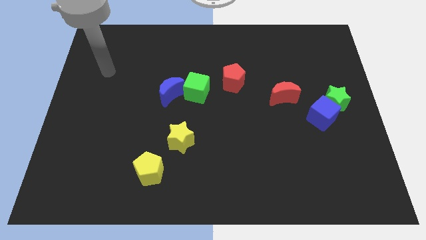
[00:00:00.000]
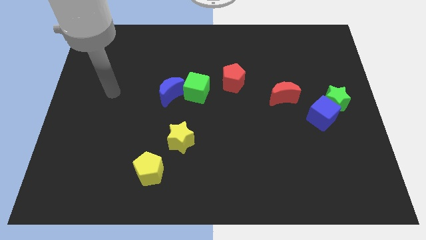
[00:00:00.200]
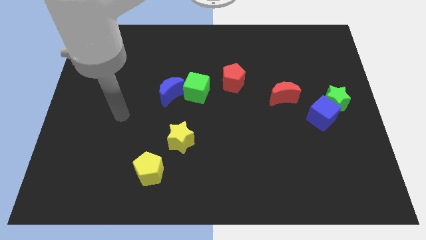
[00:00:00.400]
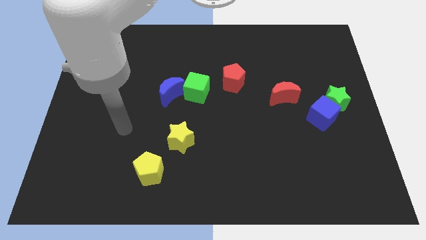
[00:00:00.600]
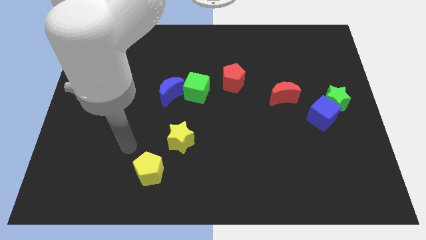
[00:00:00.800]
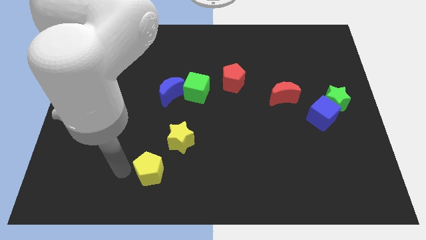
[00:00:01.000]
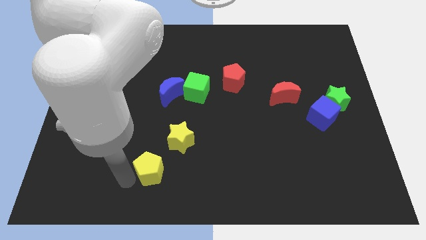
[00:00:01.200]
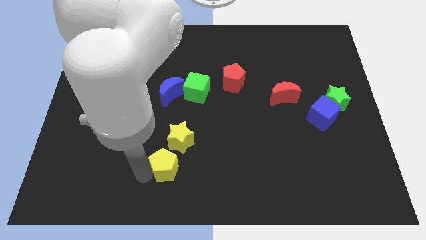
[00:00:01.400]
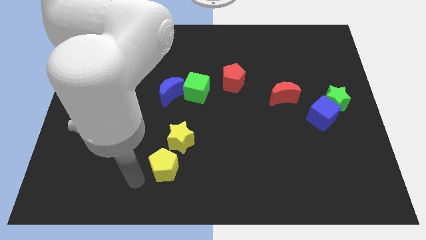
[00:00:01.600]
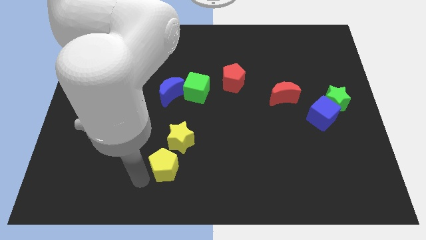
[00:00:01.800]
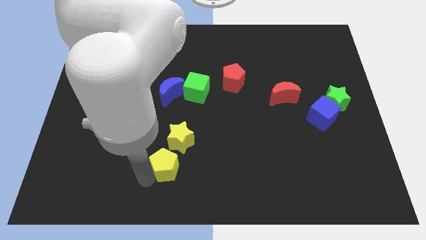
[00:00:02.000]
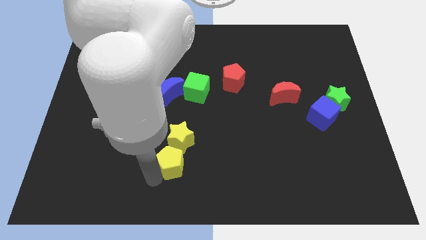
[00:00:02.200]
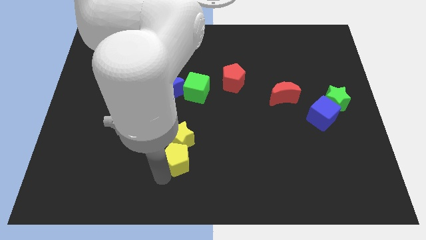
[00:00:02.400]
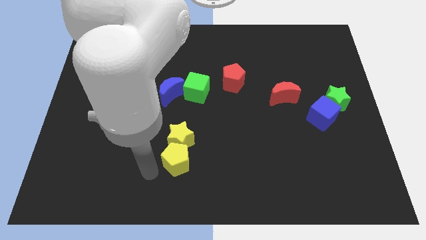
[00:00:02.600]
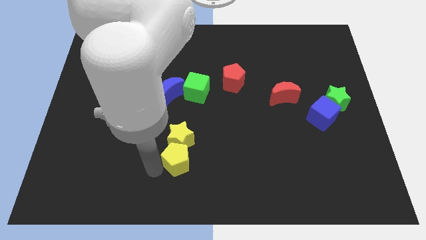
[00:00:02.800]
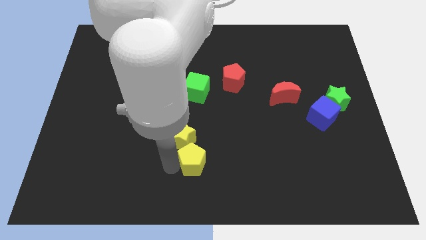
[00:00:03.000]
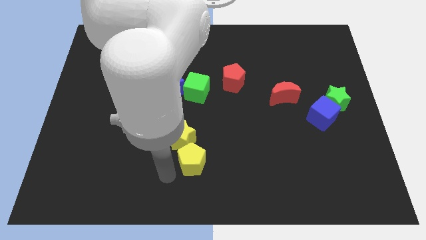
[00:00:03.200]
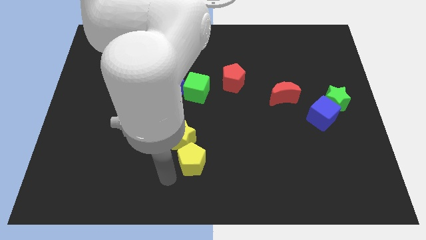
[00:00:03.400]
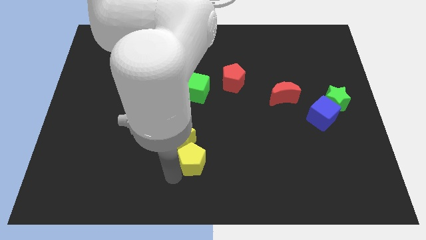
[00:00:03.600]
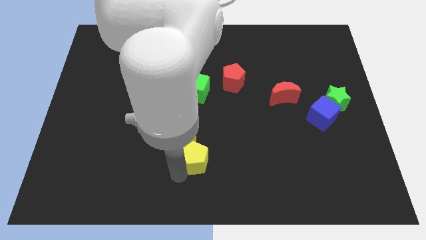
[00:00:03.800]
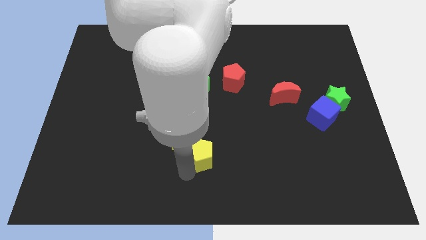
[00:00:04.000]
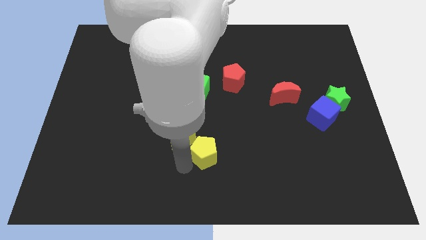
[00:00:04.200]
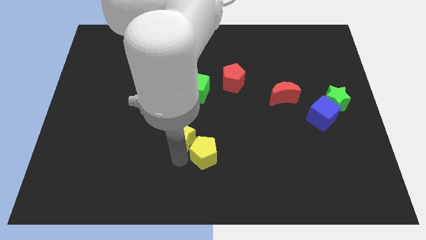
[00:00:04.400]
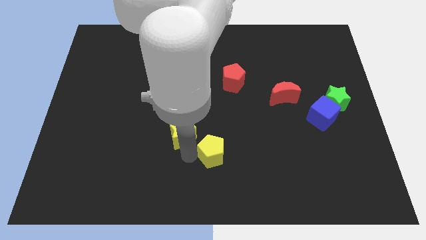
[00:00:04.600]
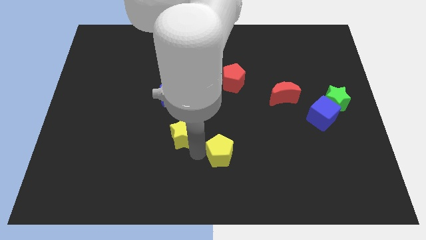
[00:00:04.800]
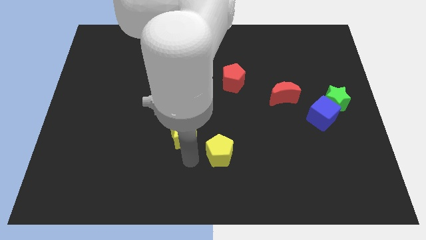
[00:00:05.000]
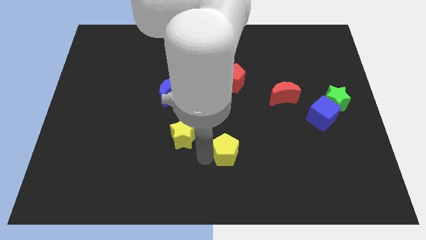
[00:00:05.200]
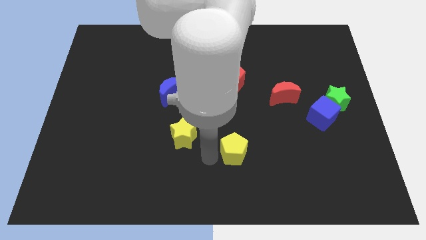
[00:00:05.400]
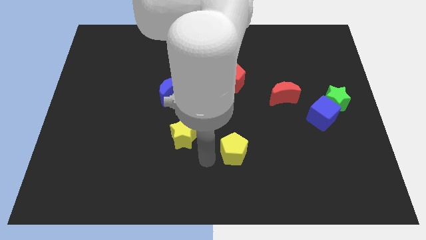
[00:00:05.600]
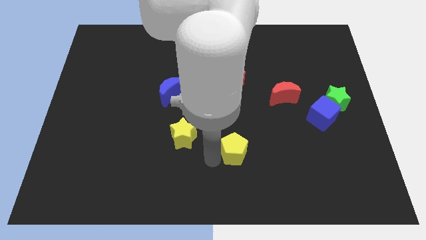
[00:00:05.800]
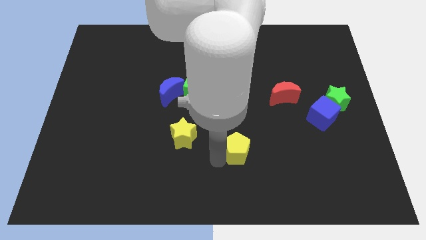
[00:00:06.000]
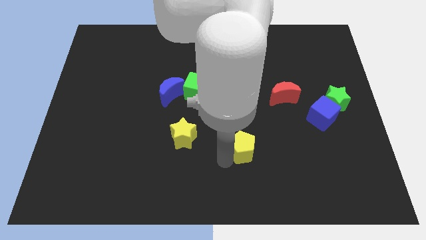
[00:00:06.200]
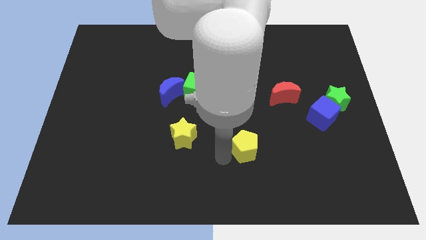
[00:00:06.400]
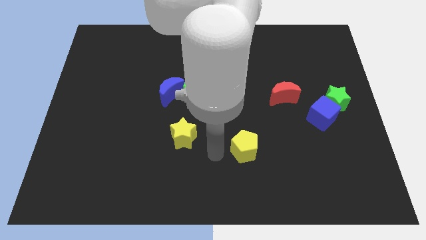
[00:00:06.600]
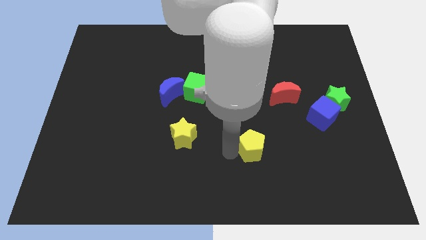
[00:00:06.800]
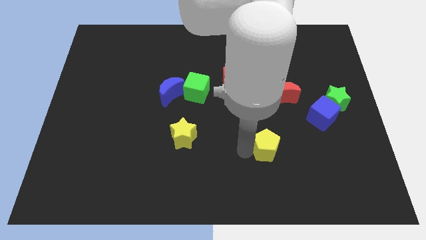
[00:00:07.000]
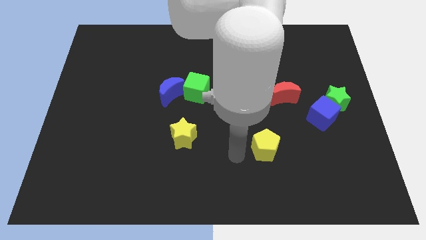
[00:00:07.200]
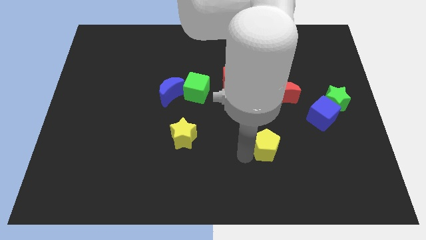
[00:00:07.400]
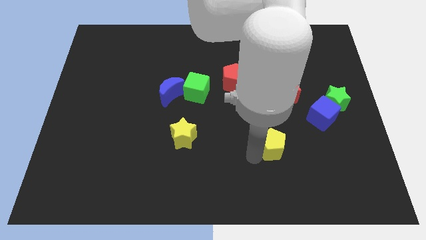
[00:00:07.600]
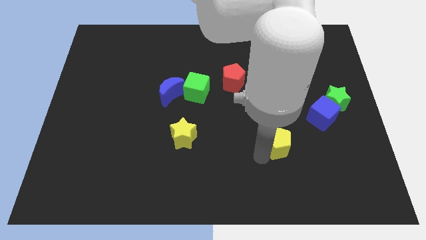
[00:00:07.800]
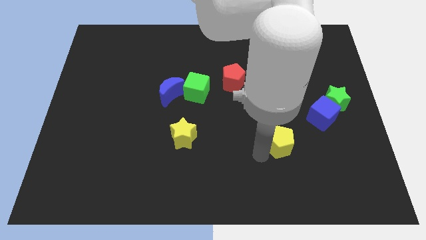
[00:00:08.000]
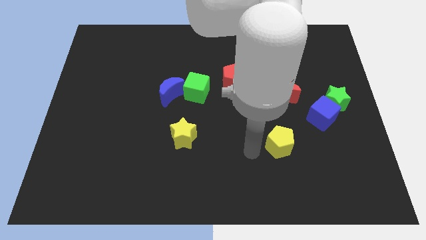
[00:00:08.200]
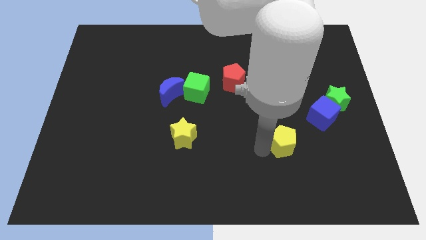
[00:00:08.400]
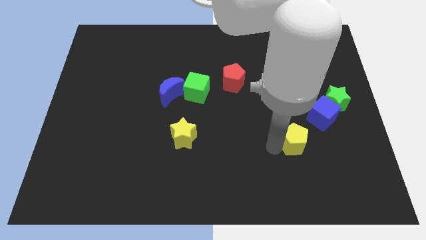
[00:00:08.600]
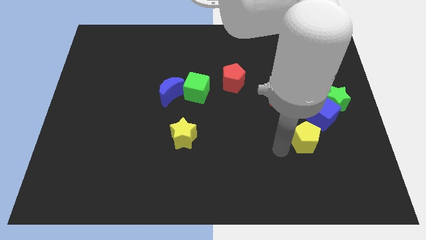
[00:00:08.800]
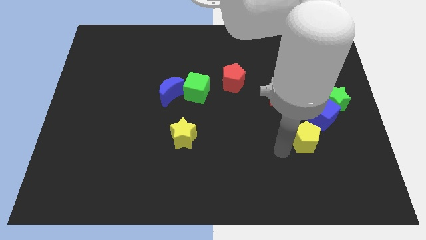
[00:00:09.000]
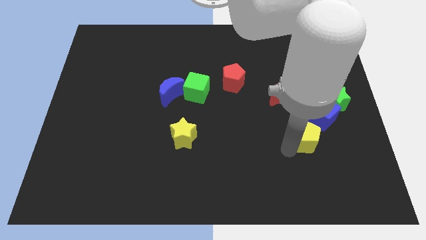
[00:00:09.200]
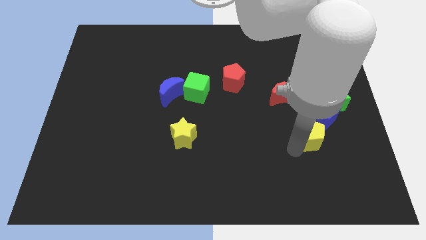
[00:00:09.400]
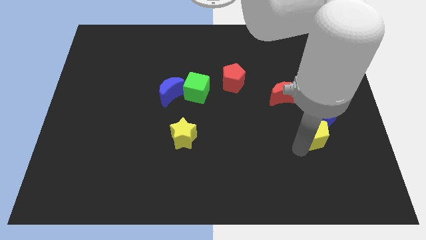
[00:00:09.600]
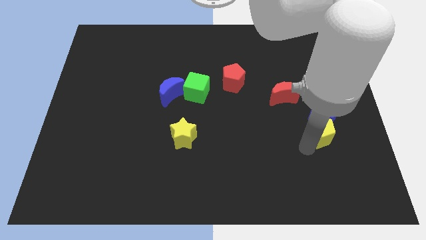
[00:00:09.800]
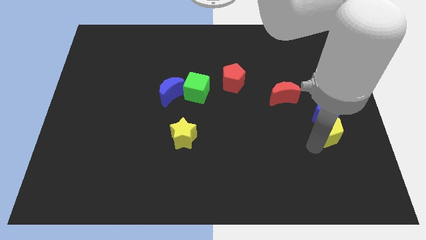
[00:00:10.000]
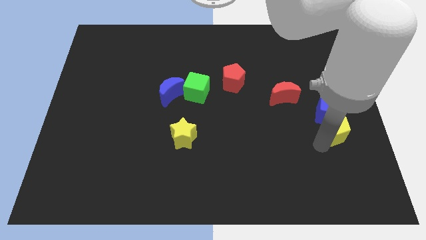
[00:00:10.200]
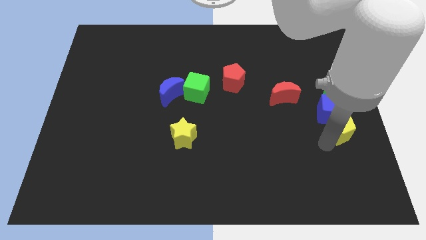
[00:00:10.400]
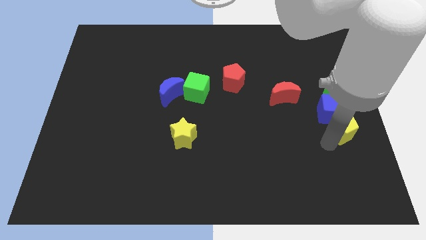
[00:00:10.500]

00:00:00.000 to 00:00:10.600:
put the yellow pentagon to the right side of the board
